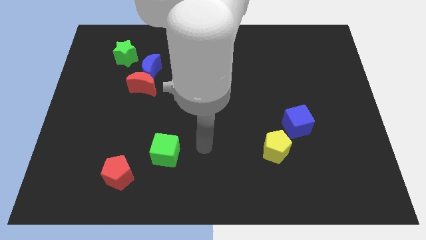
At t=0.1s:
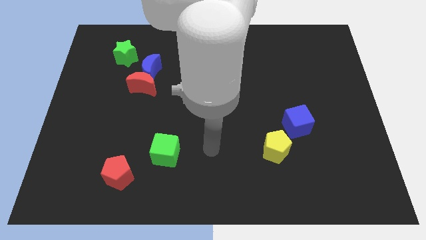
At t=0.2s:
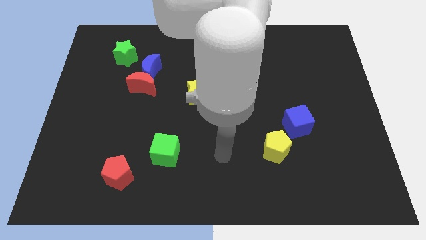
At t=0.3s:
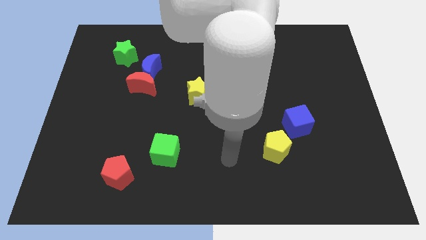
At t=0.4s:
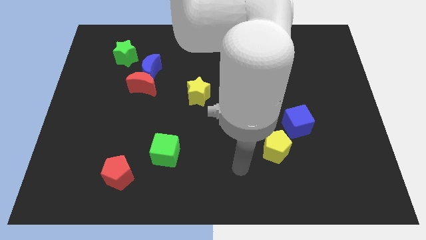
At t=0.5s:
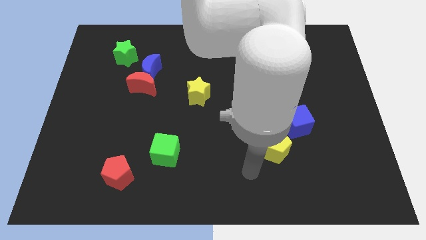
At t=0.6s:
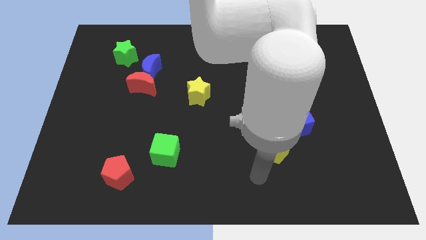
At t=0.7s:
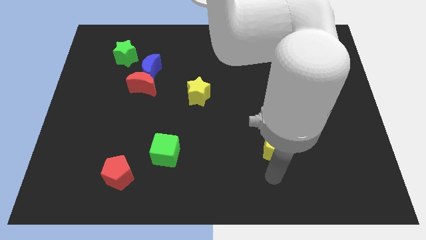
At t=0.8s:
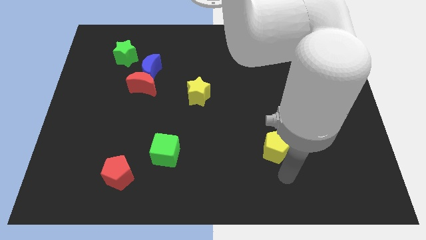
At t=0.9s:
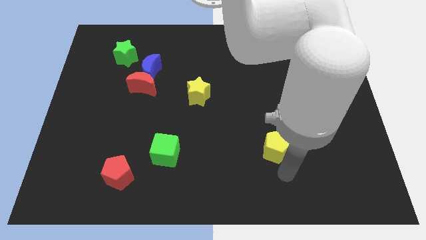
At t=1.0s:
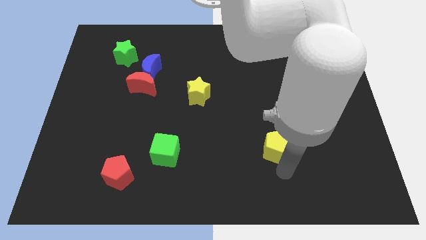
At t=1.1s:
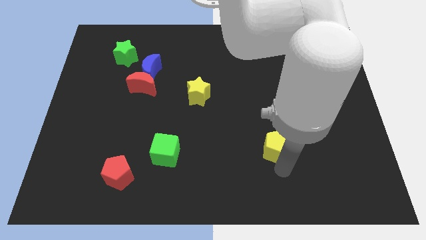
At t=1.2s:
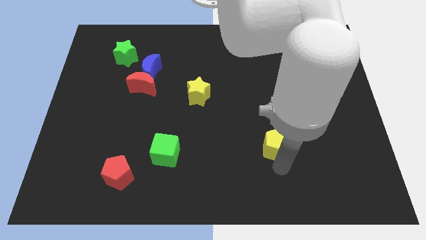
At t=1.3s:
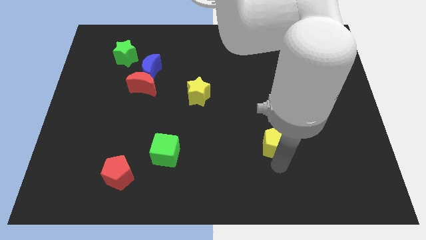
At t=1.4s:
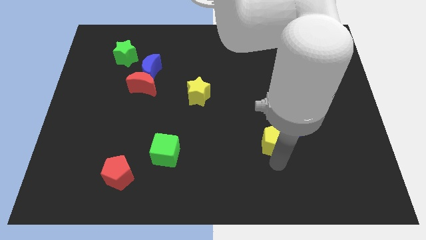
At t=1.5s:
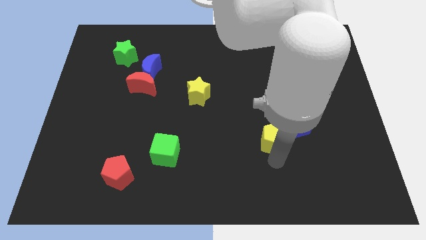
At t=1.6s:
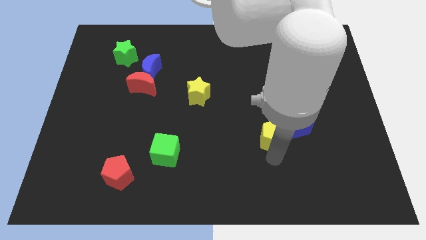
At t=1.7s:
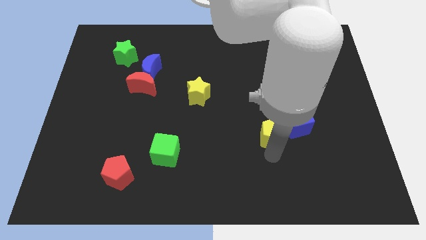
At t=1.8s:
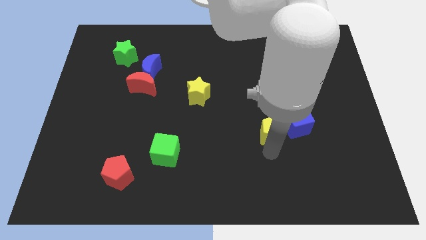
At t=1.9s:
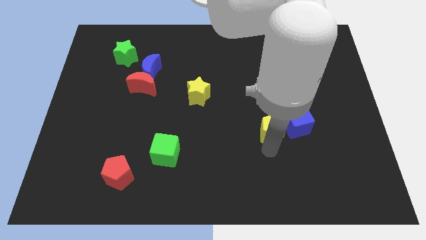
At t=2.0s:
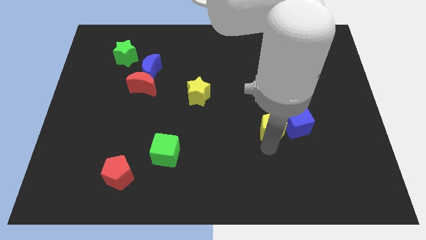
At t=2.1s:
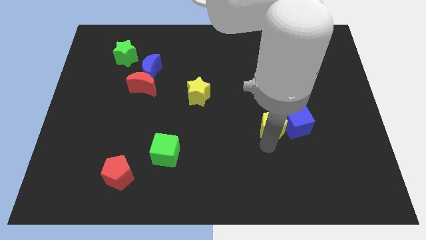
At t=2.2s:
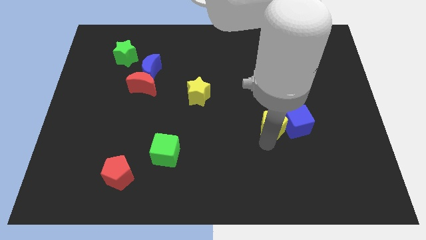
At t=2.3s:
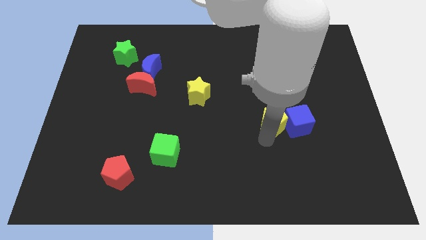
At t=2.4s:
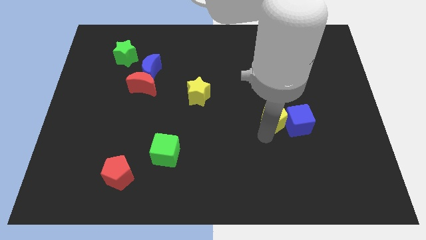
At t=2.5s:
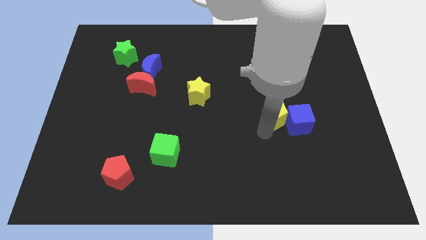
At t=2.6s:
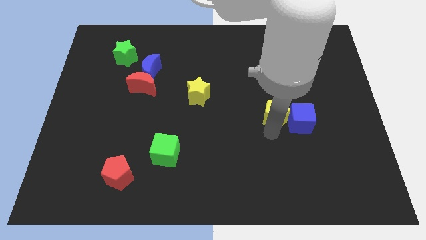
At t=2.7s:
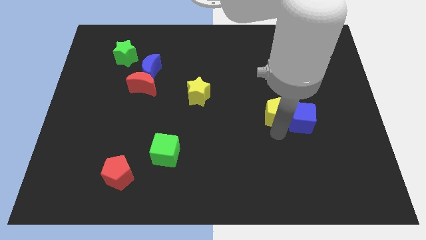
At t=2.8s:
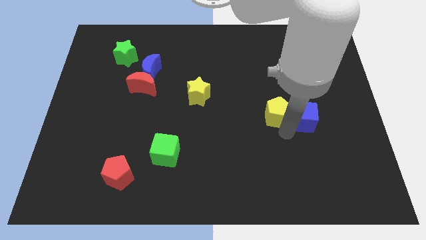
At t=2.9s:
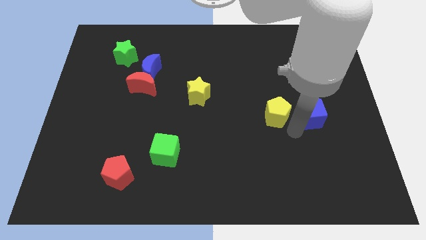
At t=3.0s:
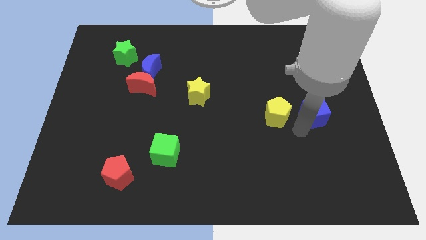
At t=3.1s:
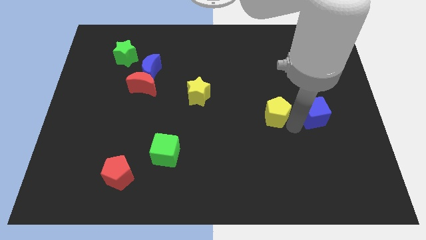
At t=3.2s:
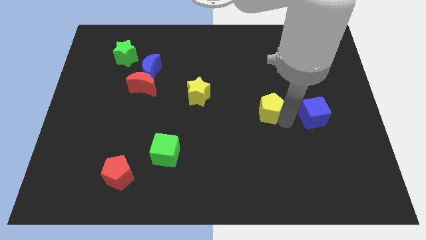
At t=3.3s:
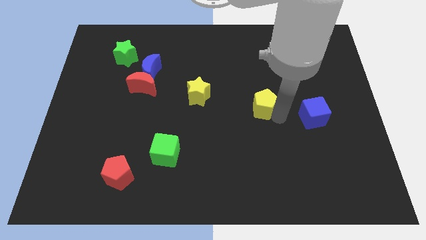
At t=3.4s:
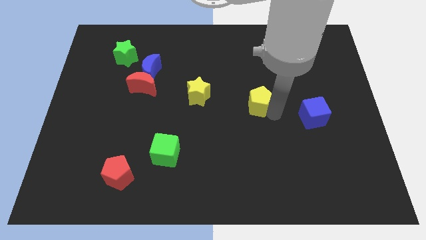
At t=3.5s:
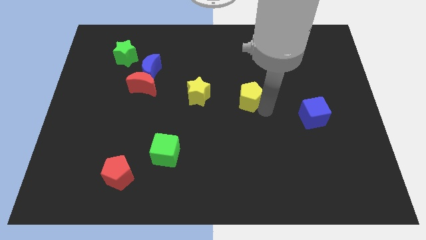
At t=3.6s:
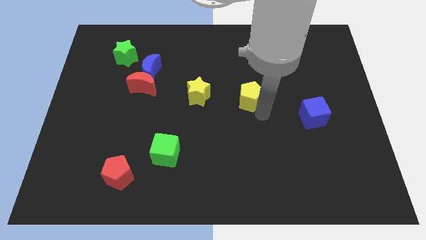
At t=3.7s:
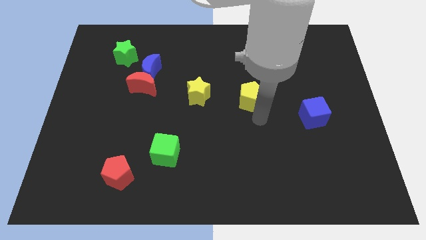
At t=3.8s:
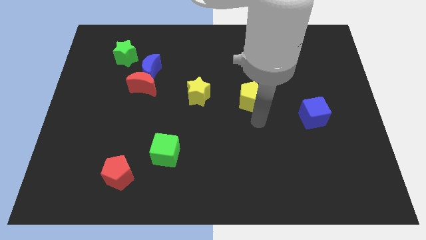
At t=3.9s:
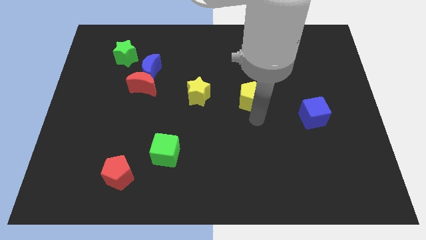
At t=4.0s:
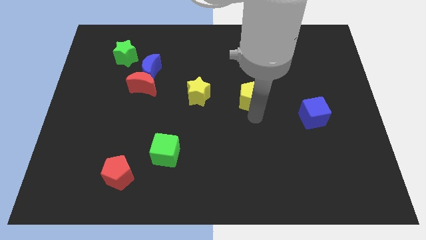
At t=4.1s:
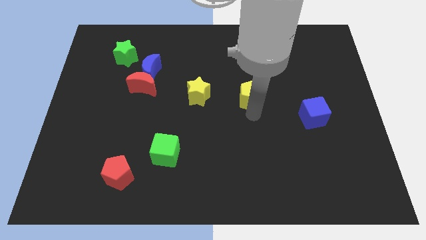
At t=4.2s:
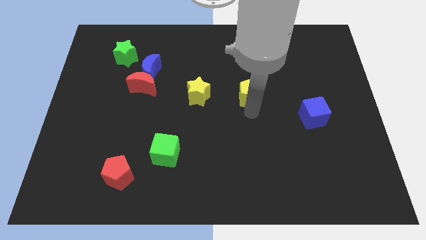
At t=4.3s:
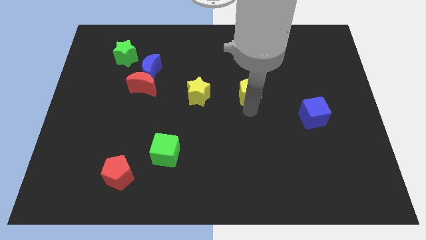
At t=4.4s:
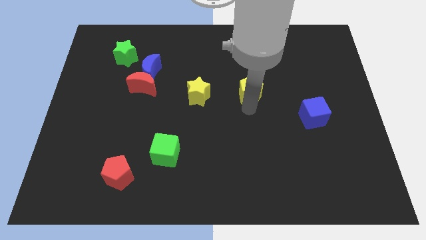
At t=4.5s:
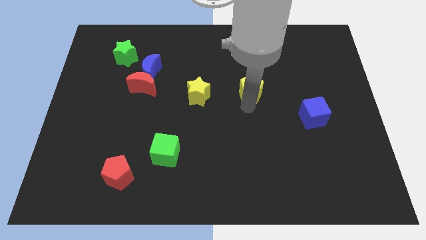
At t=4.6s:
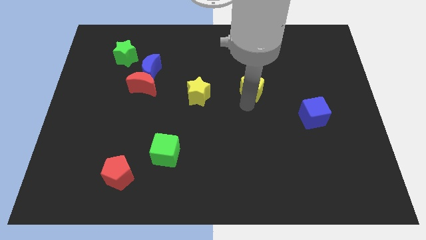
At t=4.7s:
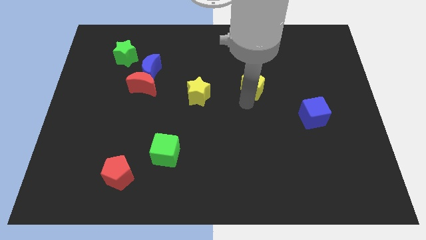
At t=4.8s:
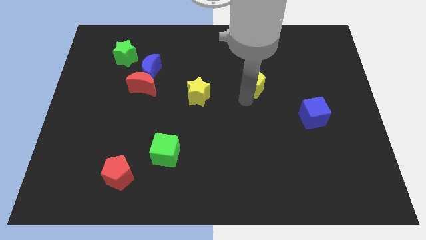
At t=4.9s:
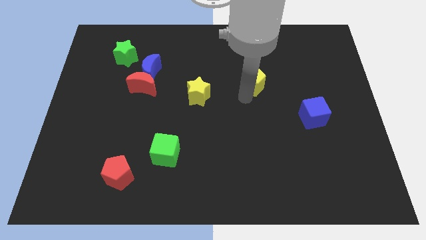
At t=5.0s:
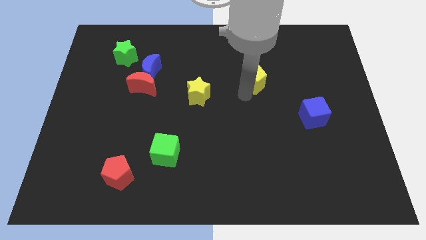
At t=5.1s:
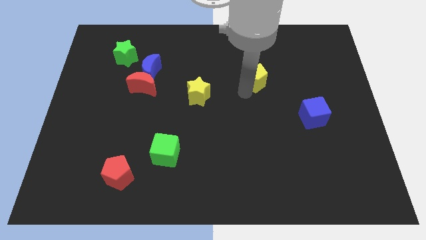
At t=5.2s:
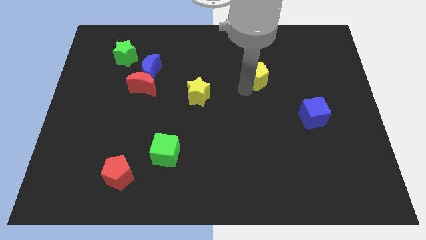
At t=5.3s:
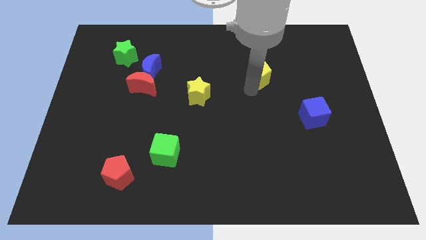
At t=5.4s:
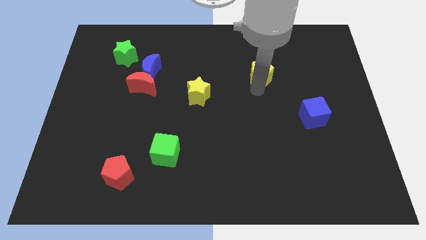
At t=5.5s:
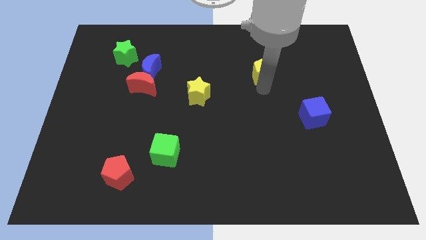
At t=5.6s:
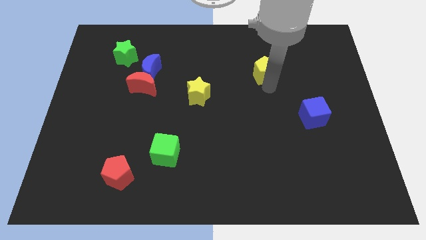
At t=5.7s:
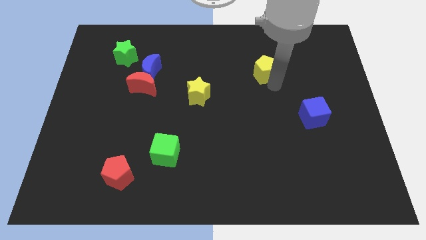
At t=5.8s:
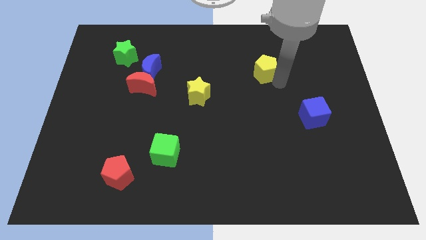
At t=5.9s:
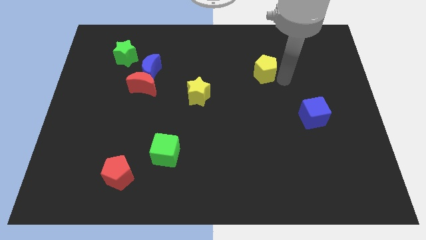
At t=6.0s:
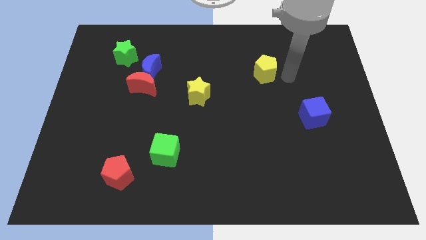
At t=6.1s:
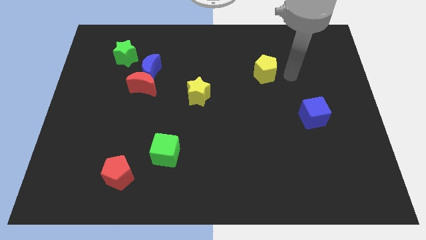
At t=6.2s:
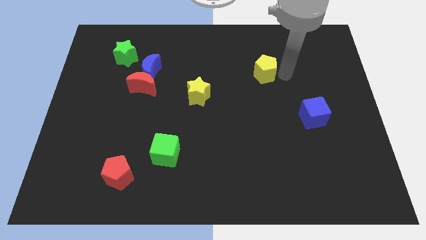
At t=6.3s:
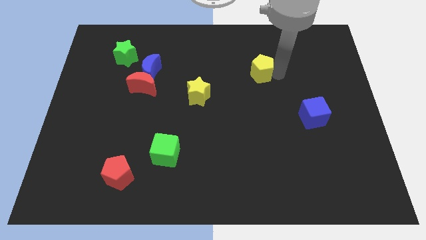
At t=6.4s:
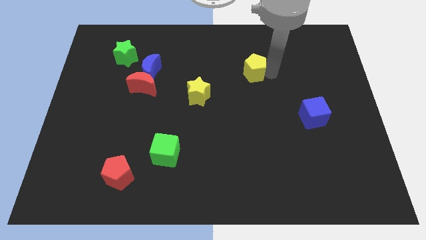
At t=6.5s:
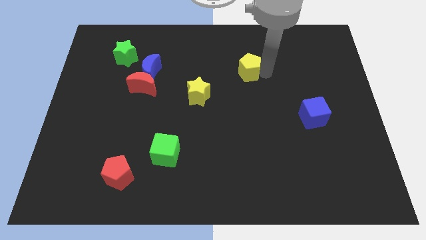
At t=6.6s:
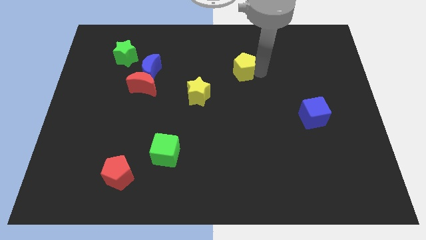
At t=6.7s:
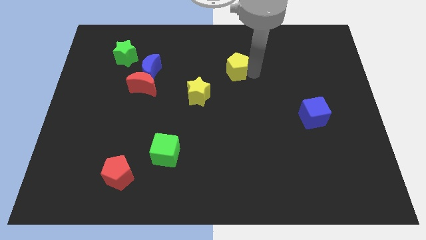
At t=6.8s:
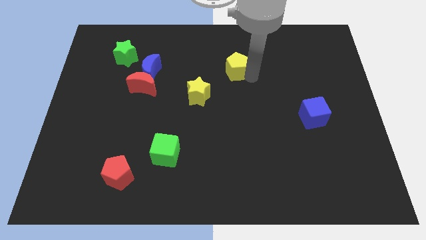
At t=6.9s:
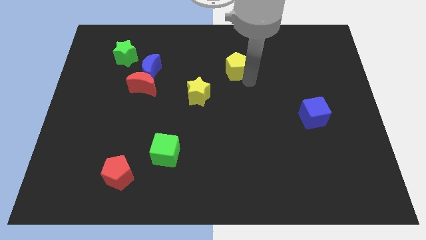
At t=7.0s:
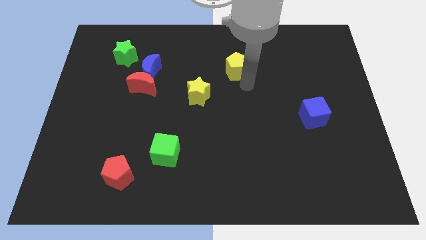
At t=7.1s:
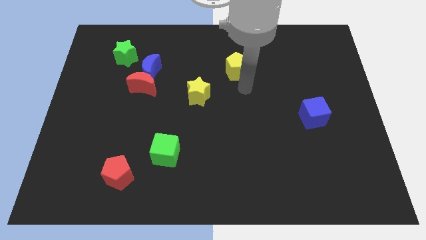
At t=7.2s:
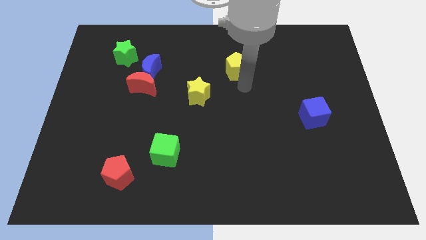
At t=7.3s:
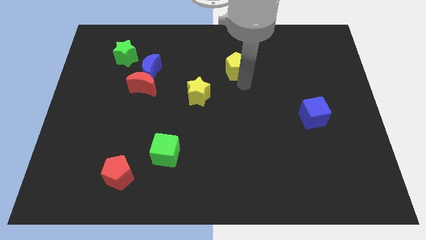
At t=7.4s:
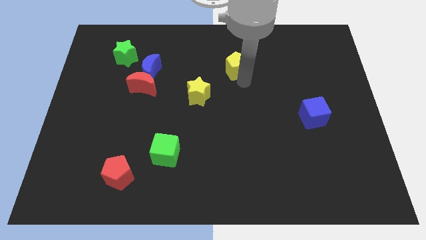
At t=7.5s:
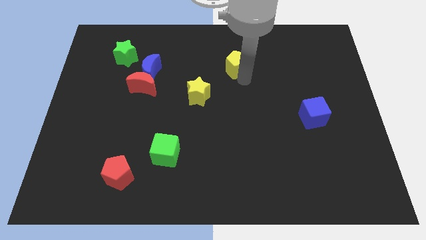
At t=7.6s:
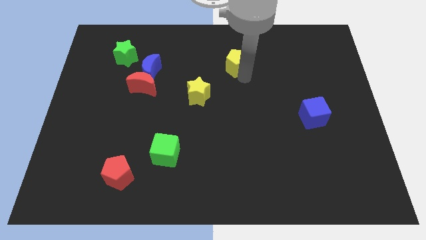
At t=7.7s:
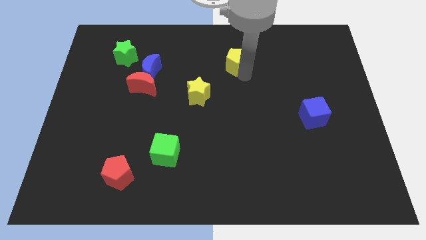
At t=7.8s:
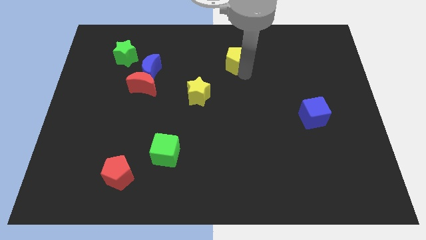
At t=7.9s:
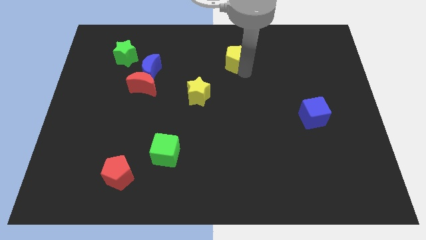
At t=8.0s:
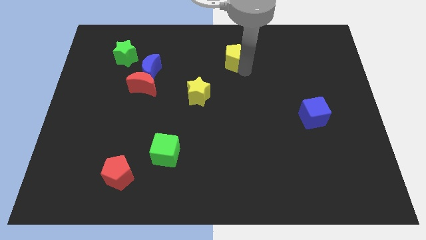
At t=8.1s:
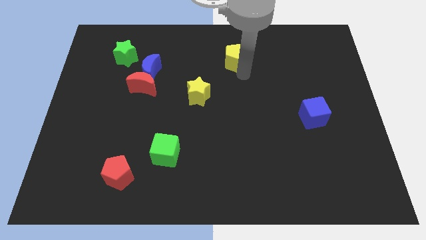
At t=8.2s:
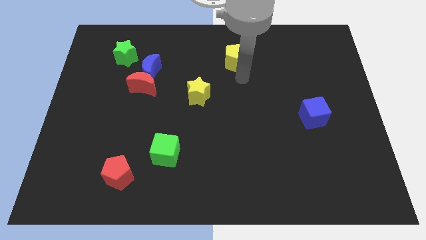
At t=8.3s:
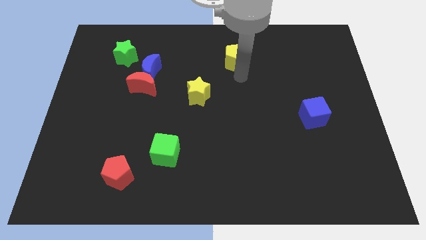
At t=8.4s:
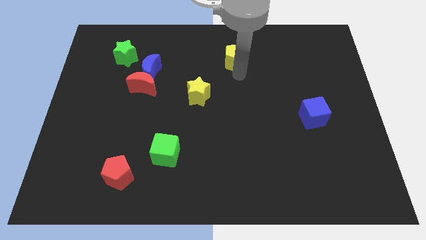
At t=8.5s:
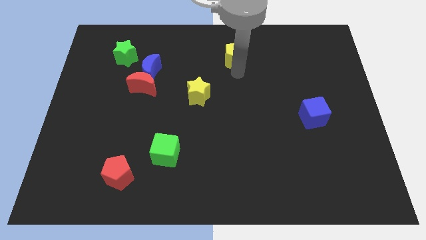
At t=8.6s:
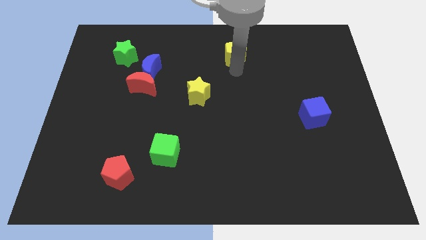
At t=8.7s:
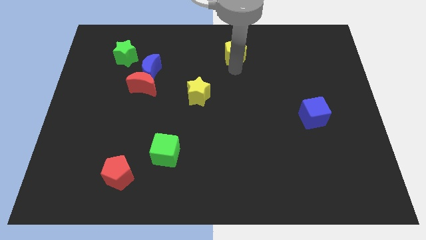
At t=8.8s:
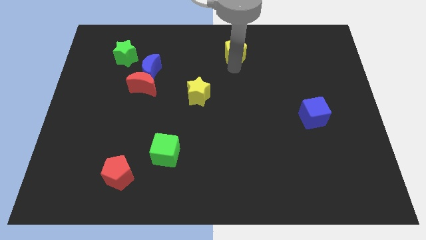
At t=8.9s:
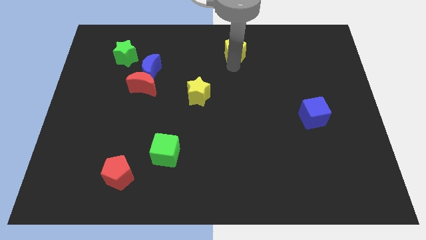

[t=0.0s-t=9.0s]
put the yellow pentagon to the top
